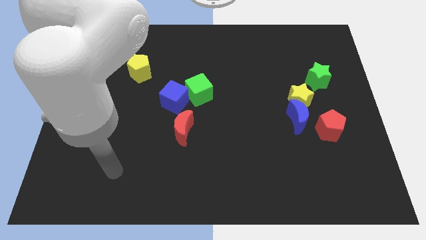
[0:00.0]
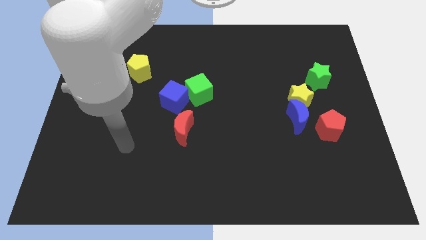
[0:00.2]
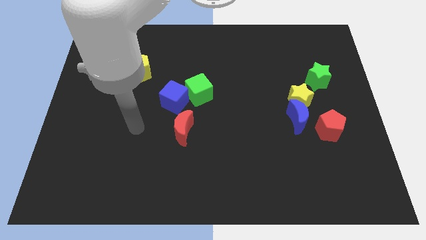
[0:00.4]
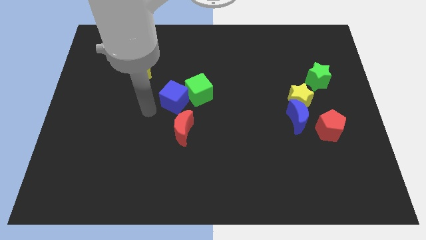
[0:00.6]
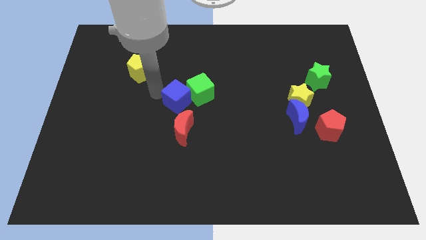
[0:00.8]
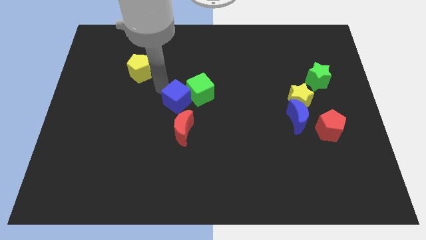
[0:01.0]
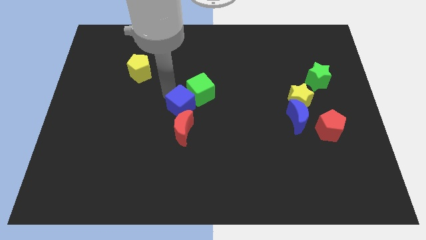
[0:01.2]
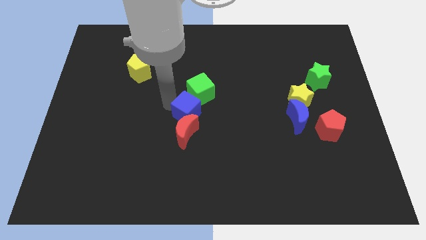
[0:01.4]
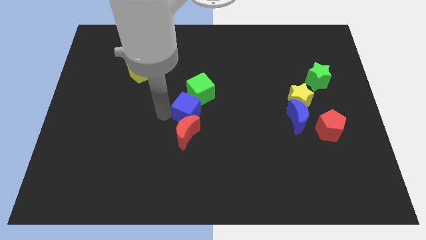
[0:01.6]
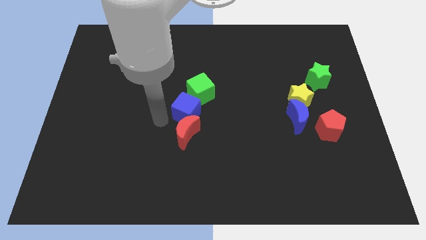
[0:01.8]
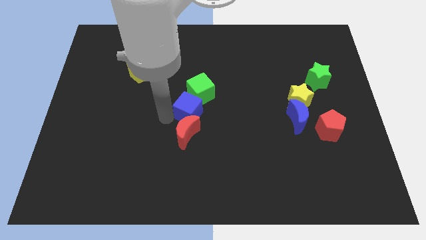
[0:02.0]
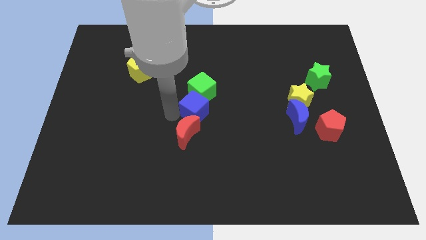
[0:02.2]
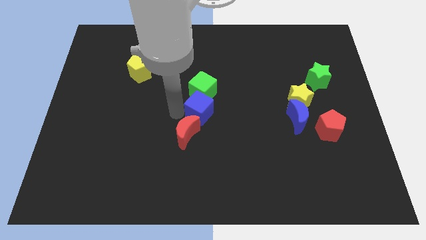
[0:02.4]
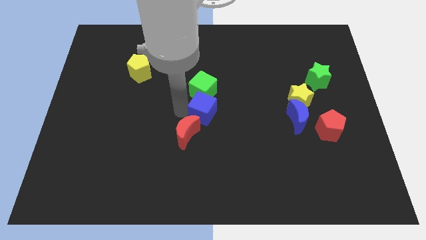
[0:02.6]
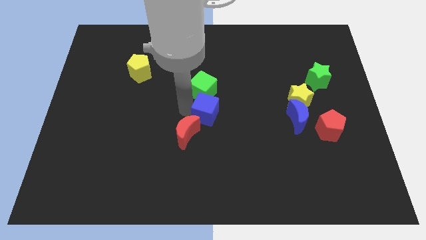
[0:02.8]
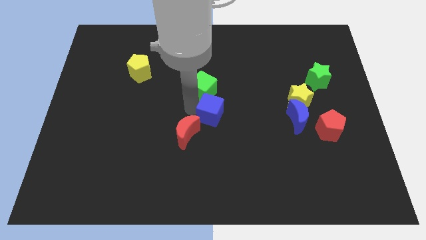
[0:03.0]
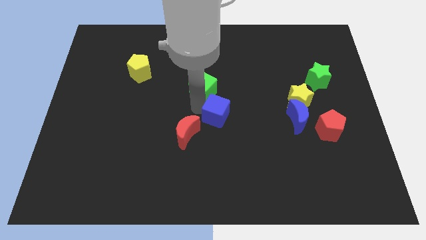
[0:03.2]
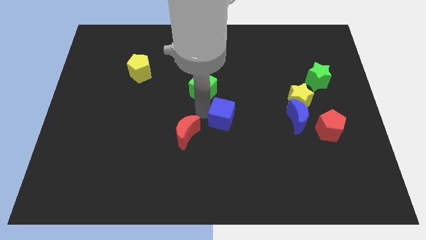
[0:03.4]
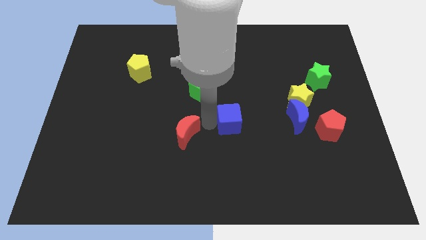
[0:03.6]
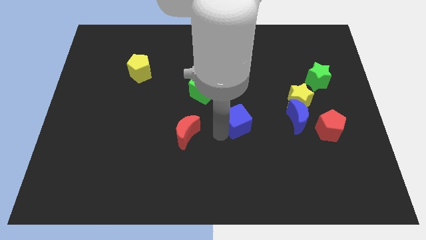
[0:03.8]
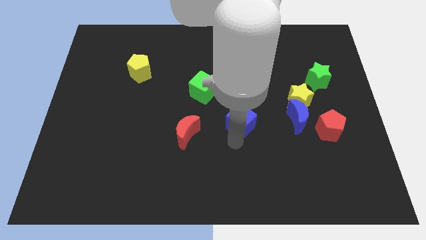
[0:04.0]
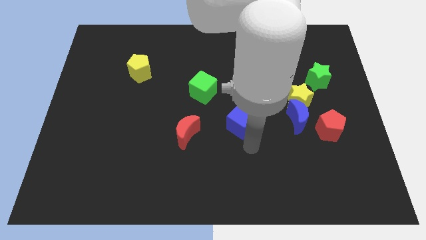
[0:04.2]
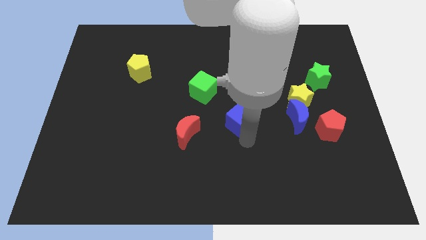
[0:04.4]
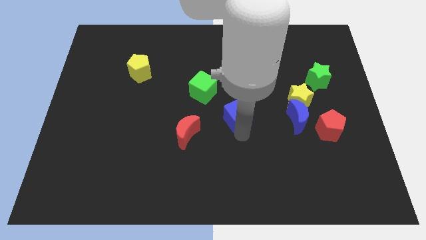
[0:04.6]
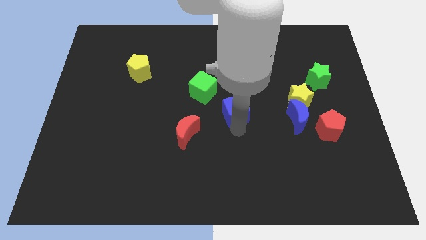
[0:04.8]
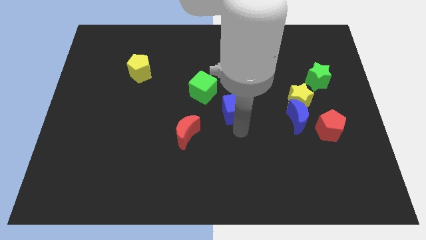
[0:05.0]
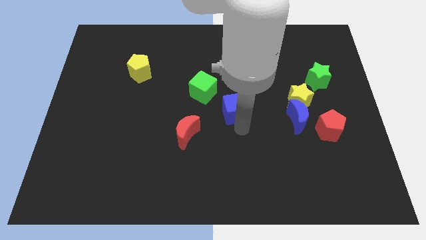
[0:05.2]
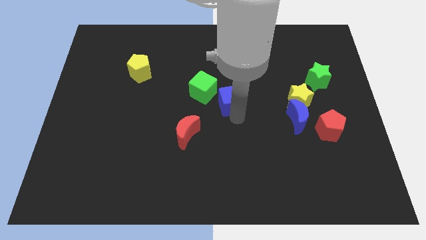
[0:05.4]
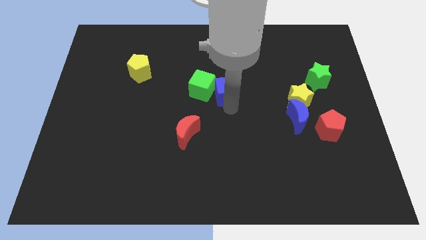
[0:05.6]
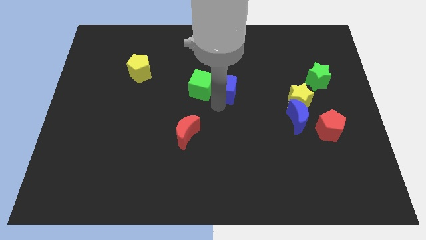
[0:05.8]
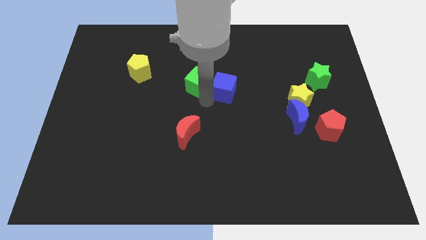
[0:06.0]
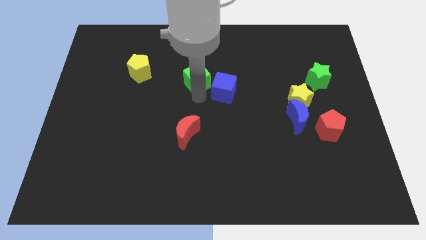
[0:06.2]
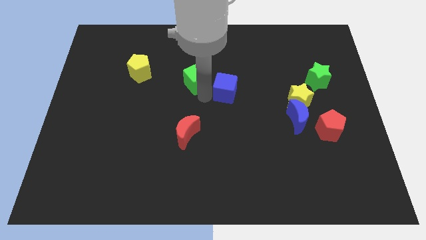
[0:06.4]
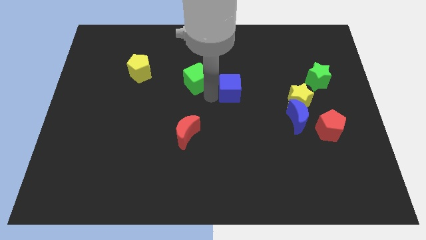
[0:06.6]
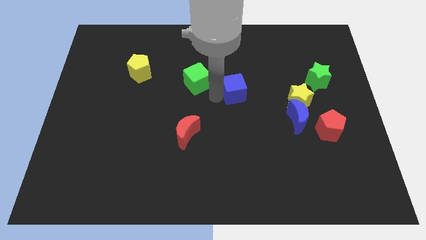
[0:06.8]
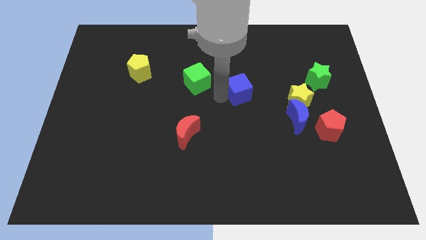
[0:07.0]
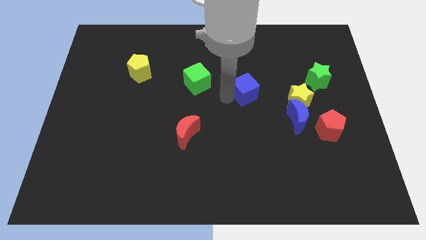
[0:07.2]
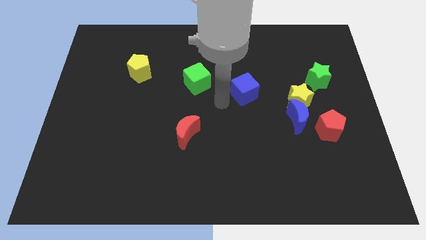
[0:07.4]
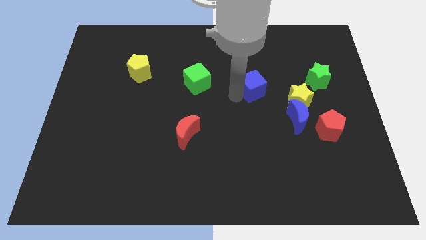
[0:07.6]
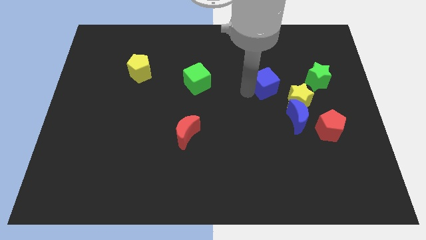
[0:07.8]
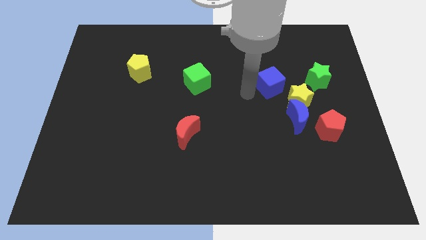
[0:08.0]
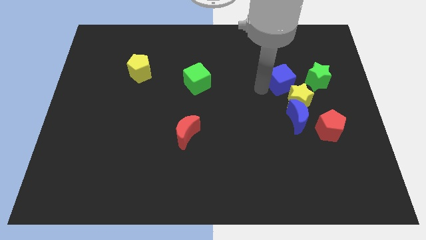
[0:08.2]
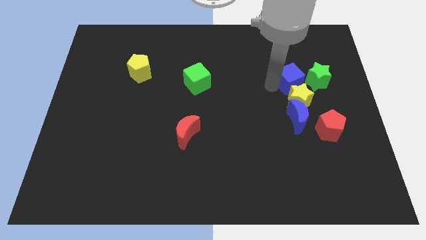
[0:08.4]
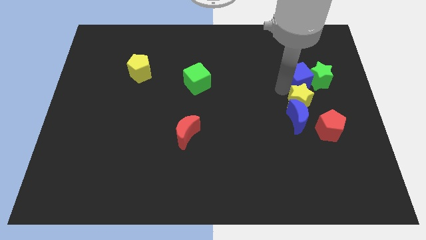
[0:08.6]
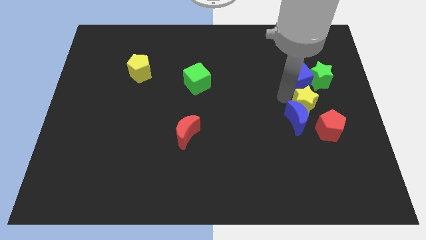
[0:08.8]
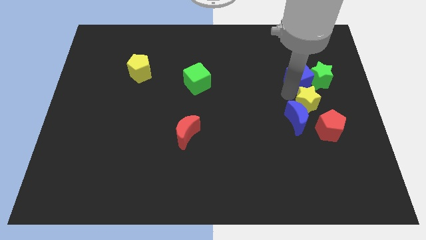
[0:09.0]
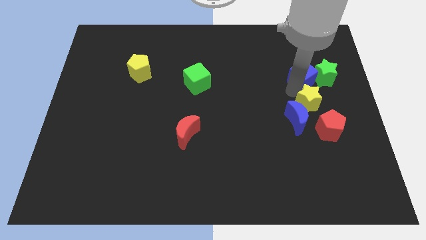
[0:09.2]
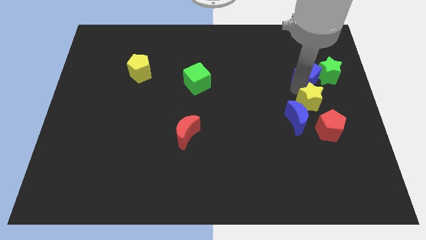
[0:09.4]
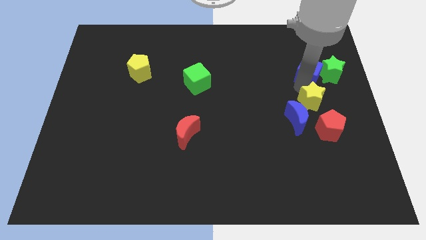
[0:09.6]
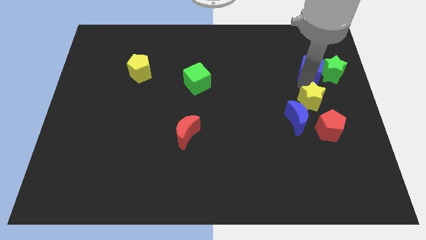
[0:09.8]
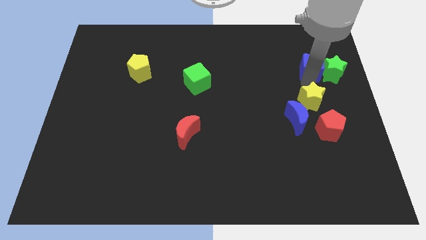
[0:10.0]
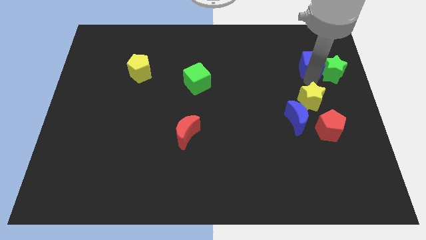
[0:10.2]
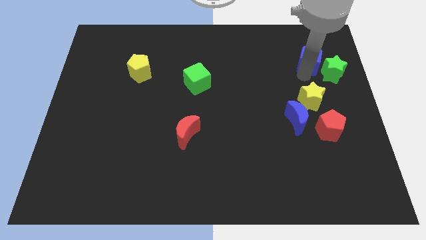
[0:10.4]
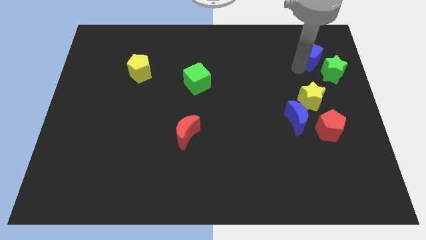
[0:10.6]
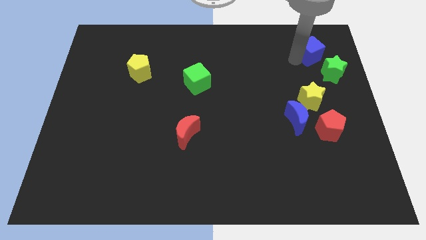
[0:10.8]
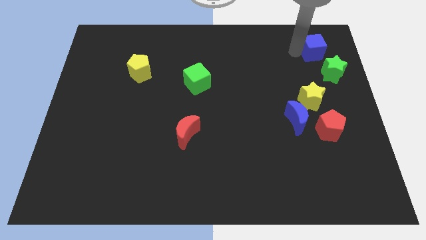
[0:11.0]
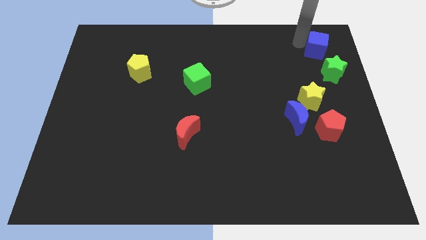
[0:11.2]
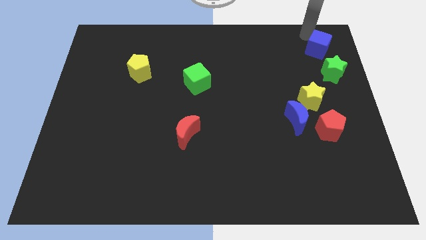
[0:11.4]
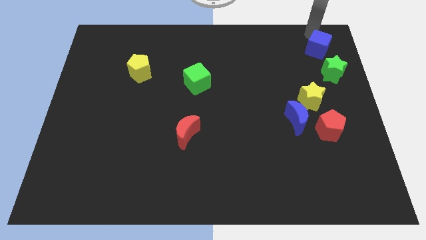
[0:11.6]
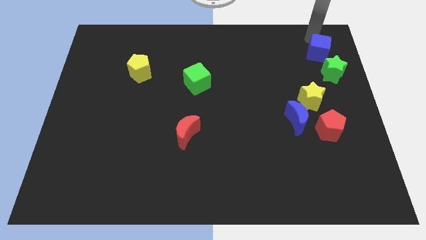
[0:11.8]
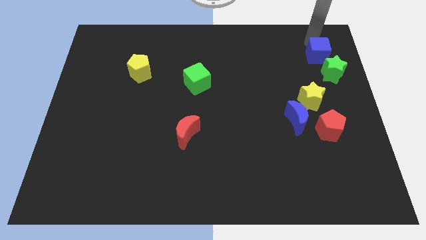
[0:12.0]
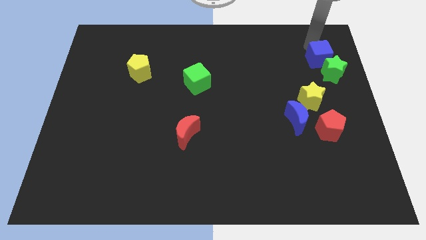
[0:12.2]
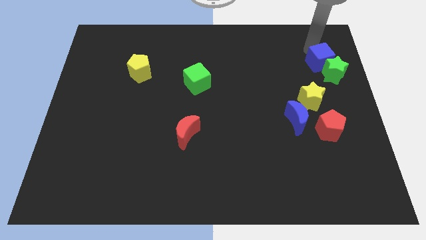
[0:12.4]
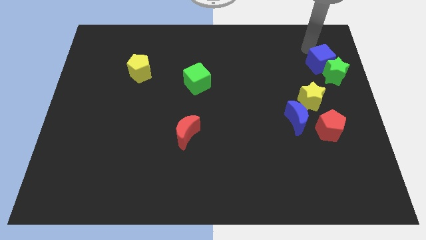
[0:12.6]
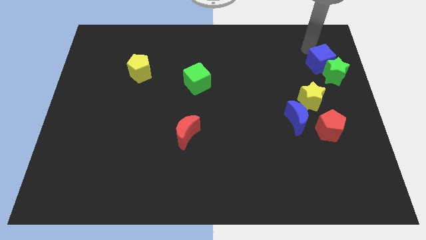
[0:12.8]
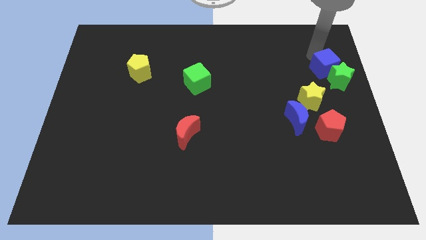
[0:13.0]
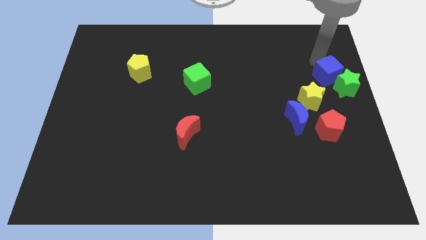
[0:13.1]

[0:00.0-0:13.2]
move the blue cube to the center right
